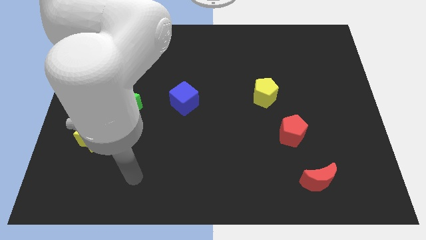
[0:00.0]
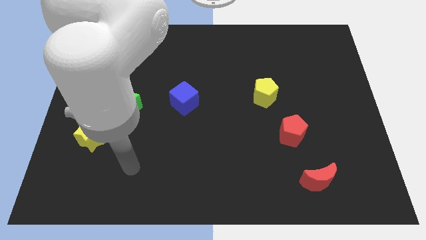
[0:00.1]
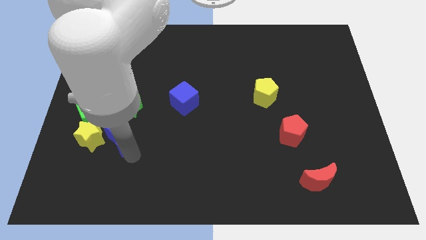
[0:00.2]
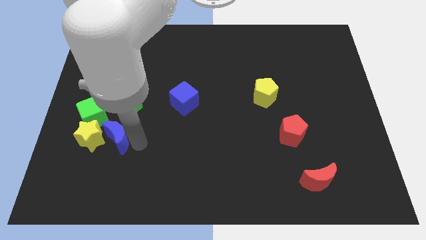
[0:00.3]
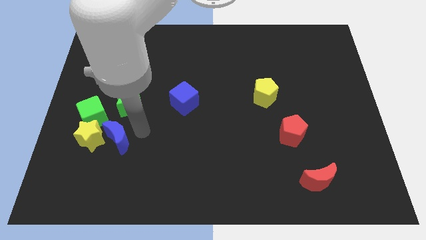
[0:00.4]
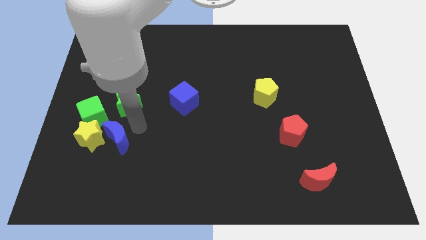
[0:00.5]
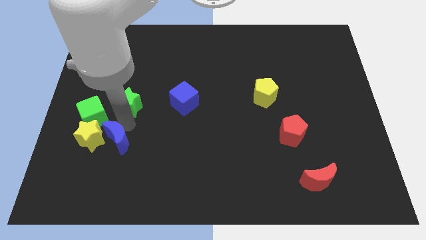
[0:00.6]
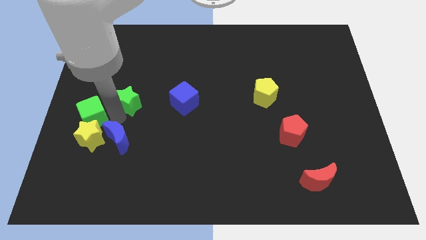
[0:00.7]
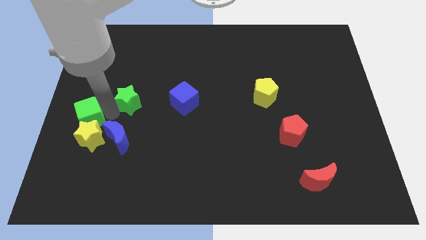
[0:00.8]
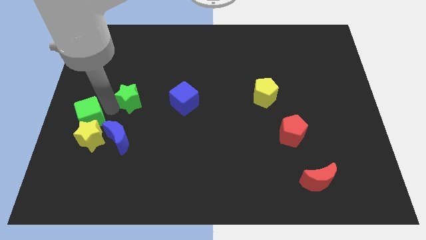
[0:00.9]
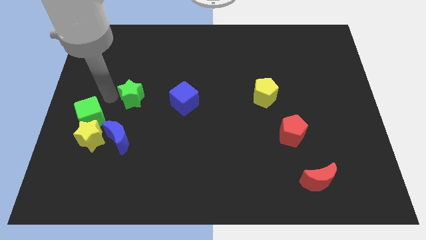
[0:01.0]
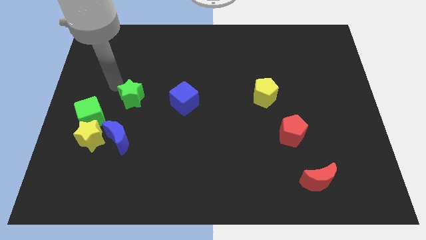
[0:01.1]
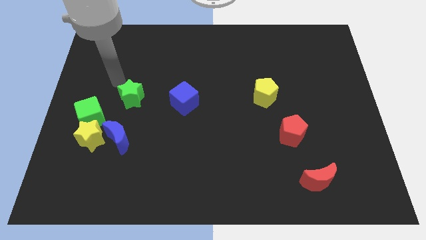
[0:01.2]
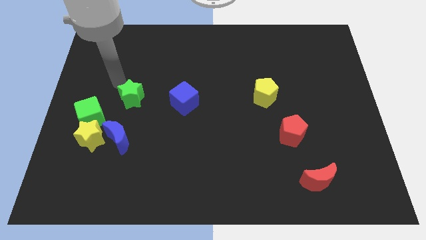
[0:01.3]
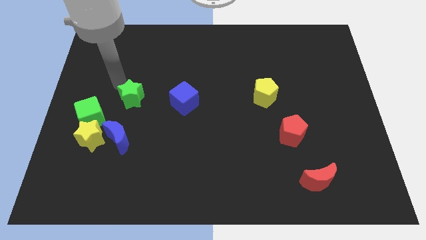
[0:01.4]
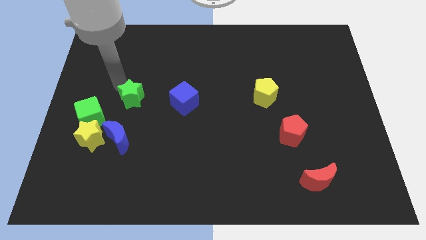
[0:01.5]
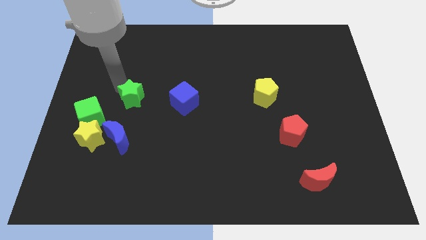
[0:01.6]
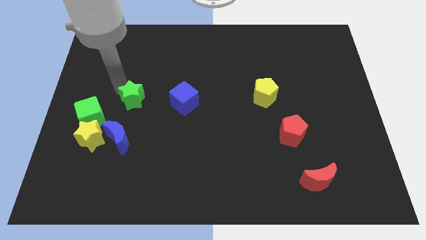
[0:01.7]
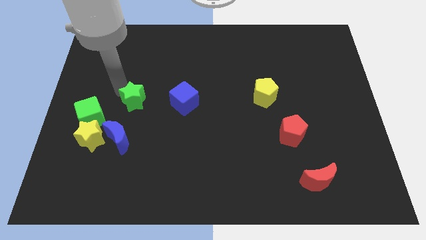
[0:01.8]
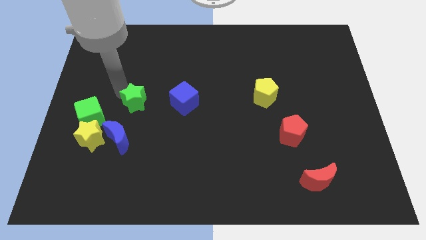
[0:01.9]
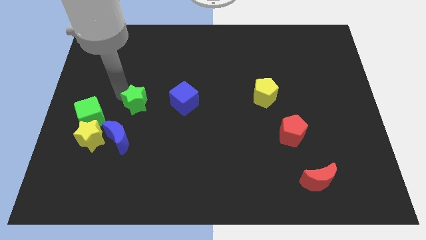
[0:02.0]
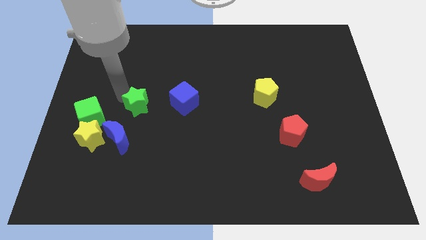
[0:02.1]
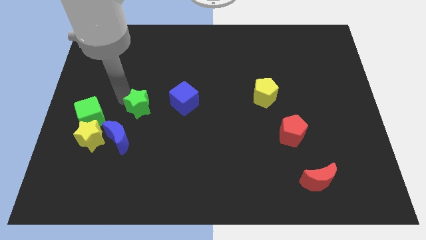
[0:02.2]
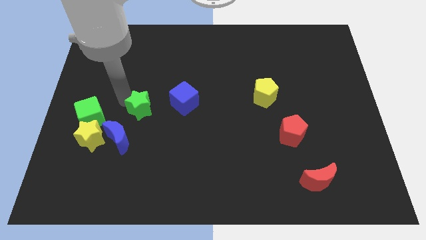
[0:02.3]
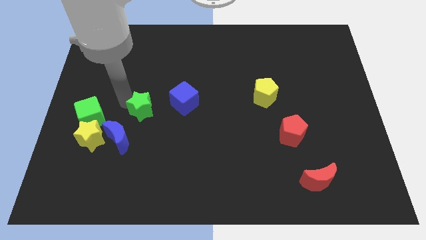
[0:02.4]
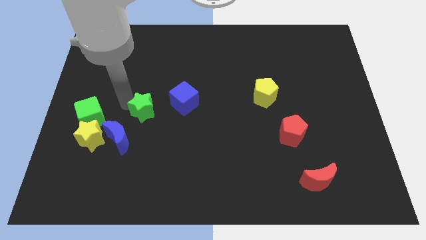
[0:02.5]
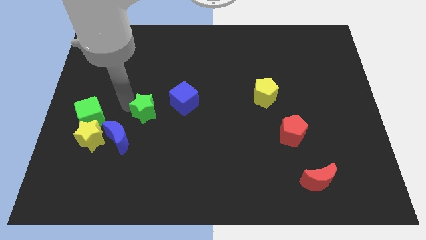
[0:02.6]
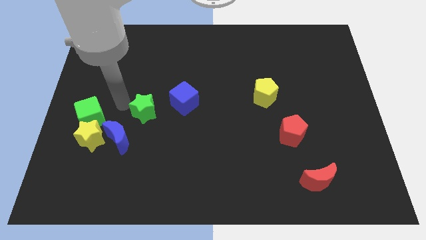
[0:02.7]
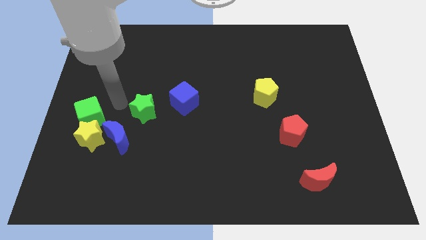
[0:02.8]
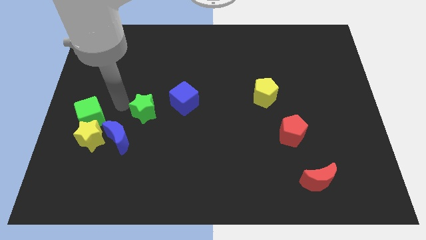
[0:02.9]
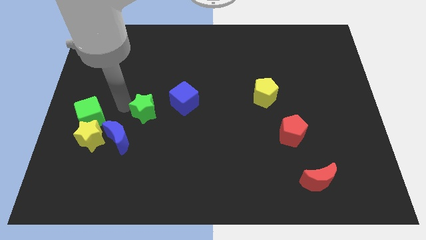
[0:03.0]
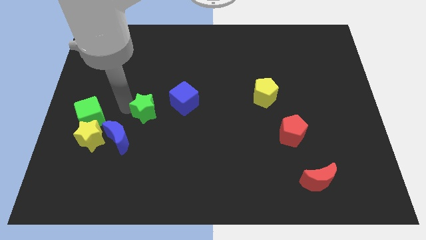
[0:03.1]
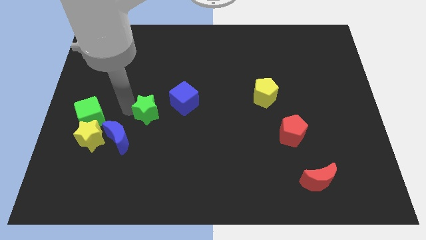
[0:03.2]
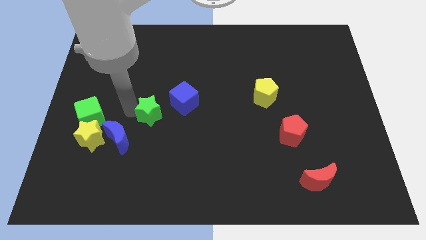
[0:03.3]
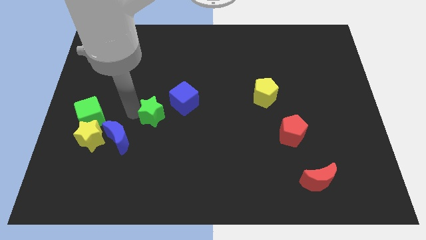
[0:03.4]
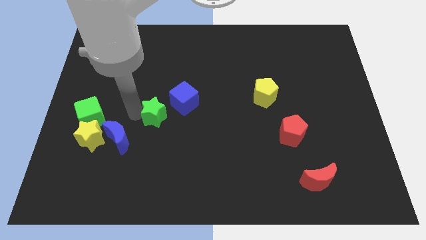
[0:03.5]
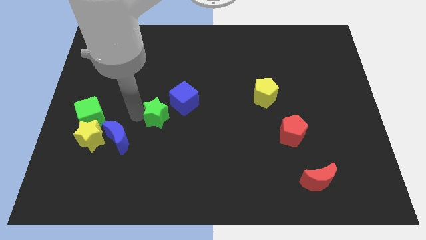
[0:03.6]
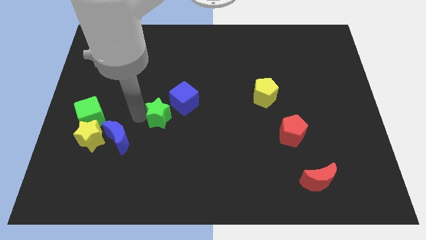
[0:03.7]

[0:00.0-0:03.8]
slide the green star to the right a bit

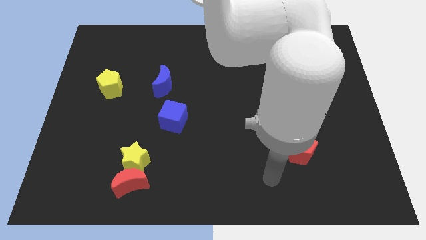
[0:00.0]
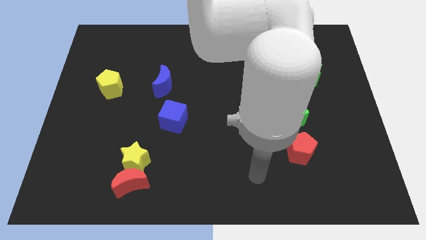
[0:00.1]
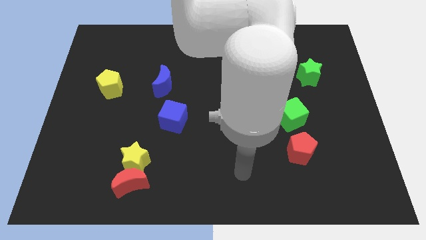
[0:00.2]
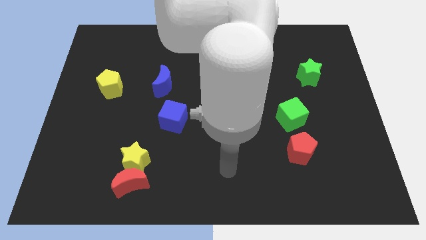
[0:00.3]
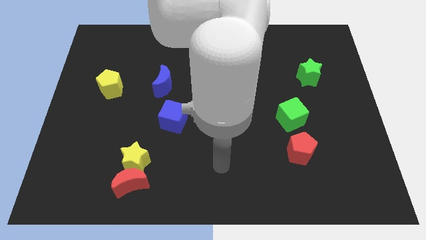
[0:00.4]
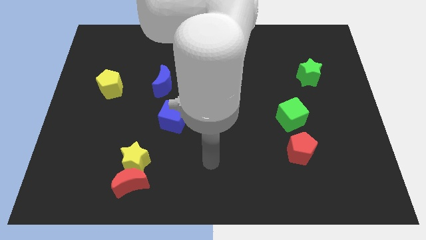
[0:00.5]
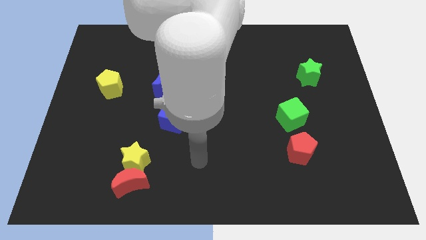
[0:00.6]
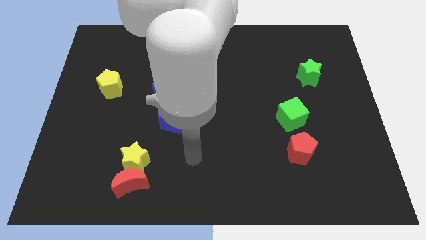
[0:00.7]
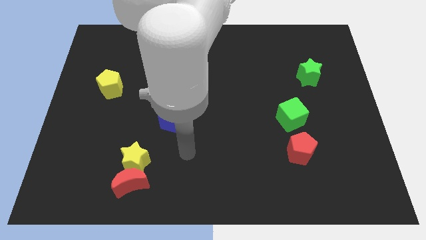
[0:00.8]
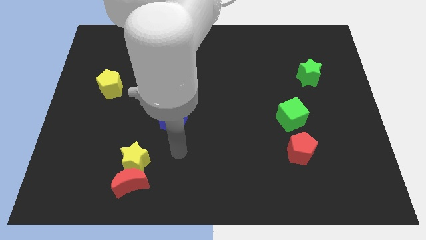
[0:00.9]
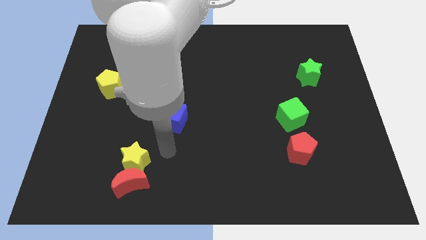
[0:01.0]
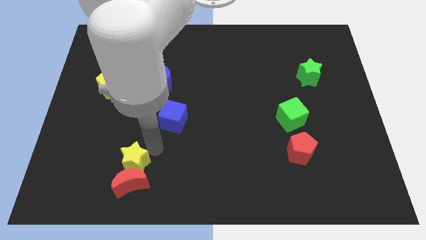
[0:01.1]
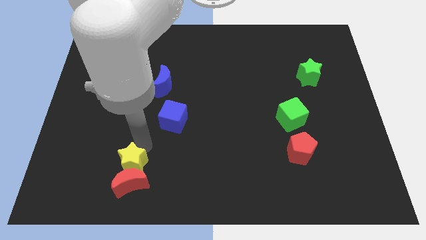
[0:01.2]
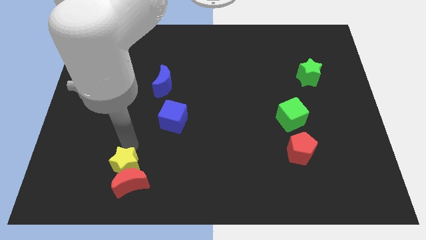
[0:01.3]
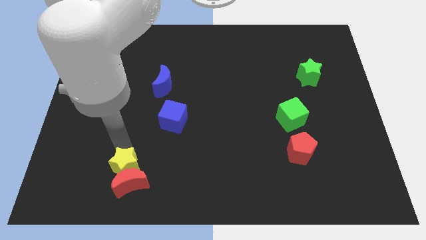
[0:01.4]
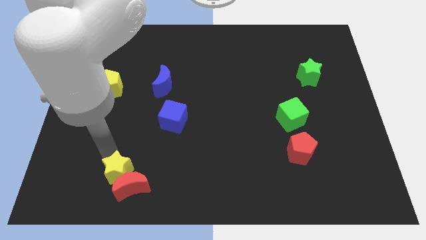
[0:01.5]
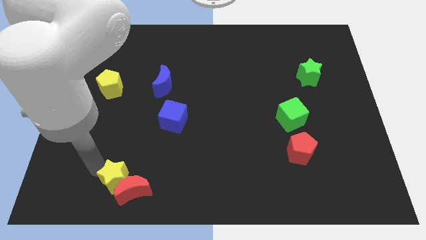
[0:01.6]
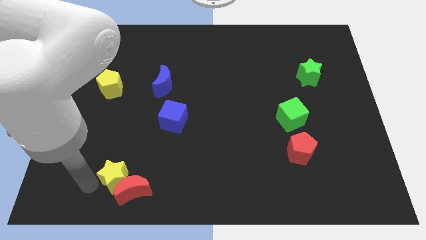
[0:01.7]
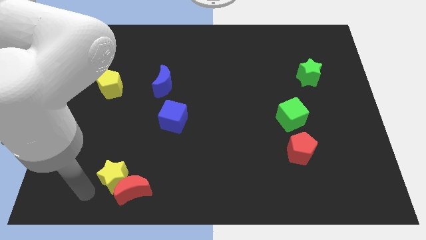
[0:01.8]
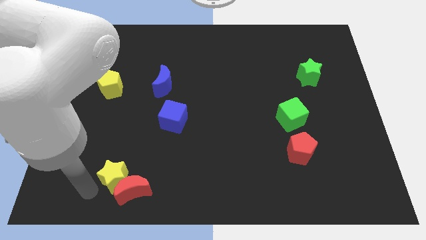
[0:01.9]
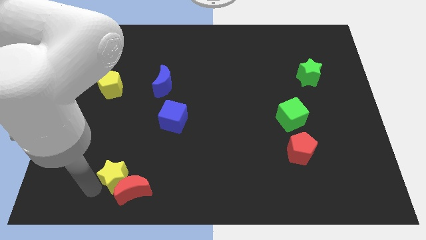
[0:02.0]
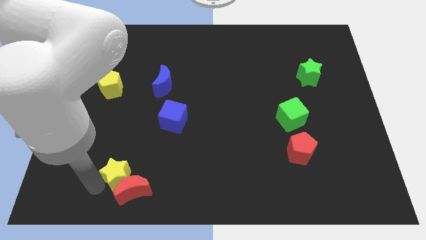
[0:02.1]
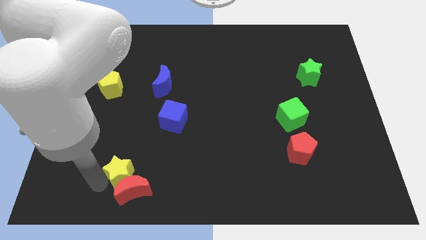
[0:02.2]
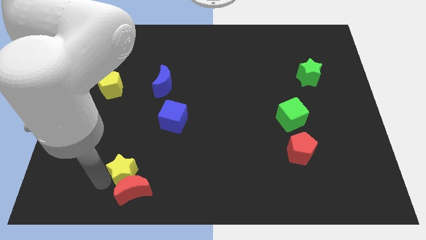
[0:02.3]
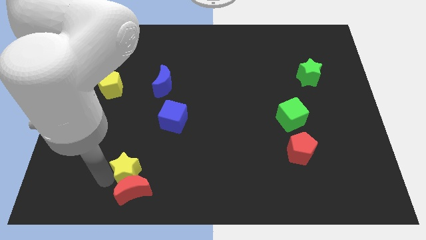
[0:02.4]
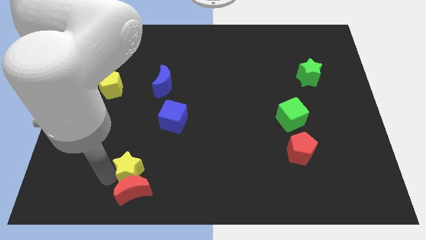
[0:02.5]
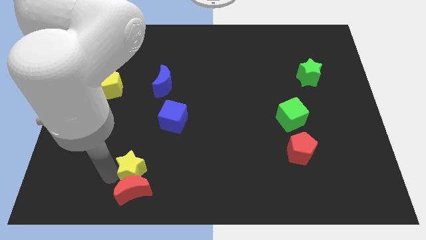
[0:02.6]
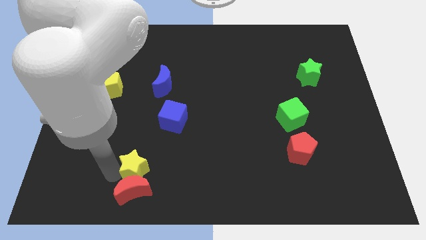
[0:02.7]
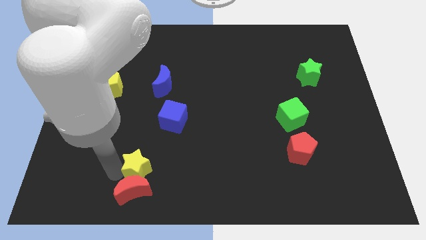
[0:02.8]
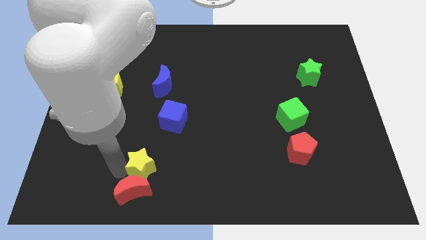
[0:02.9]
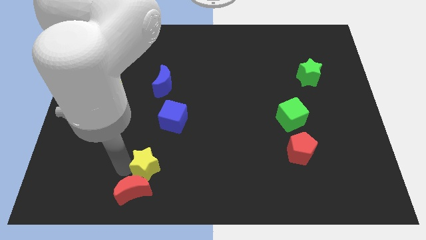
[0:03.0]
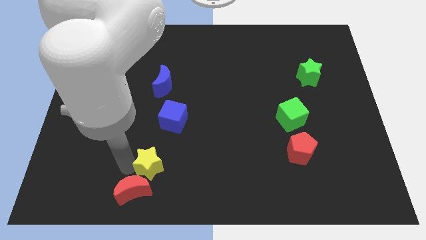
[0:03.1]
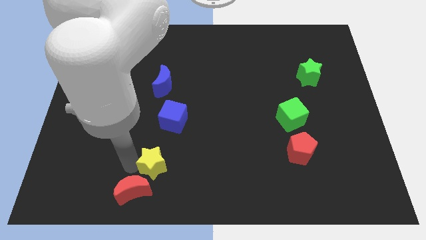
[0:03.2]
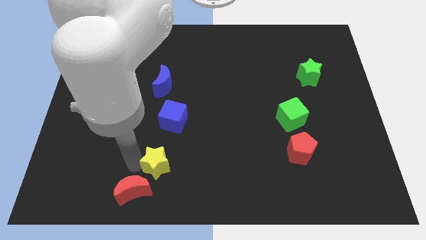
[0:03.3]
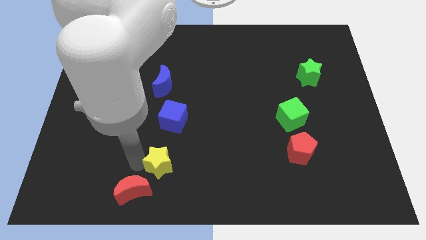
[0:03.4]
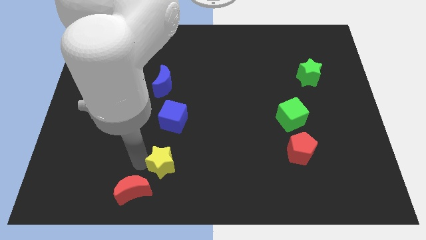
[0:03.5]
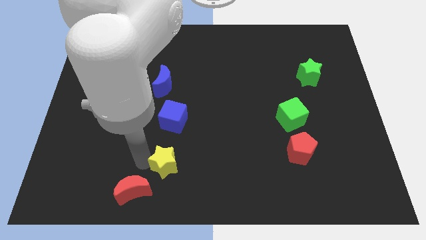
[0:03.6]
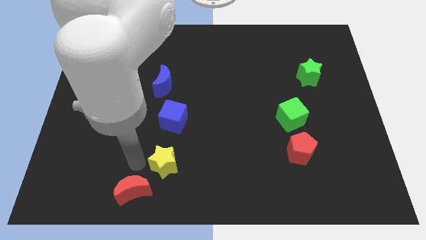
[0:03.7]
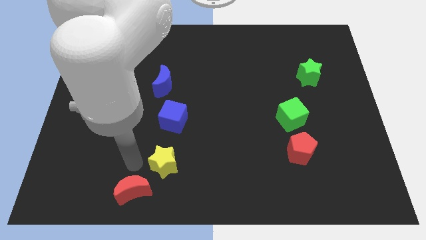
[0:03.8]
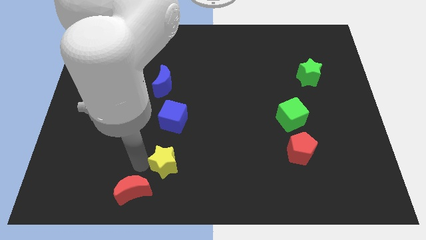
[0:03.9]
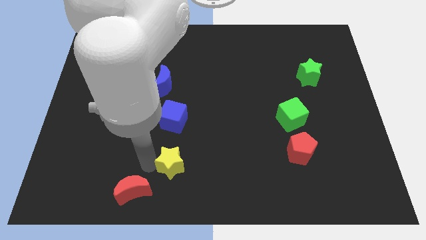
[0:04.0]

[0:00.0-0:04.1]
slightly move the yellow star to the right

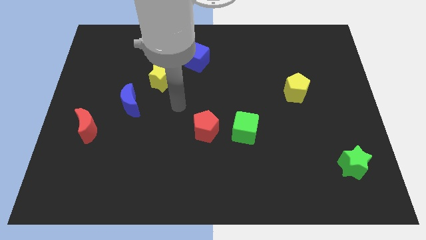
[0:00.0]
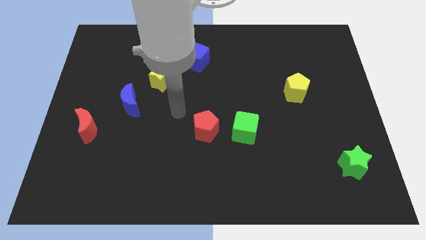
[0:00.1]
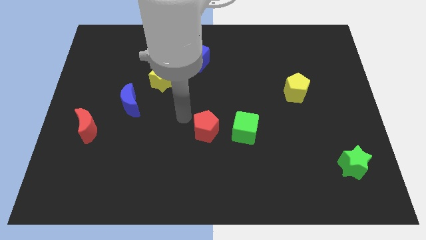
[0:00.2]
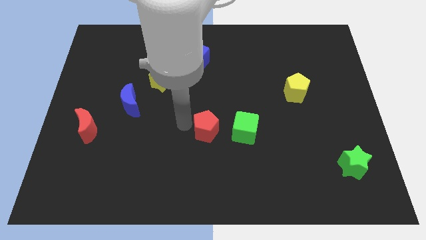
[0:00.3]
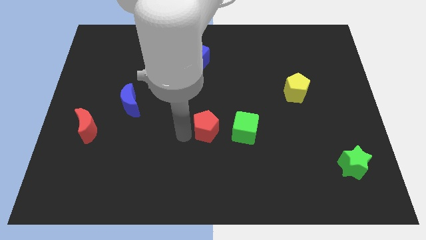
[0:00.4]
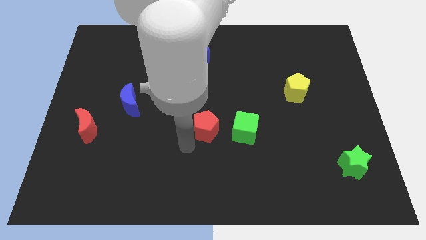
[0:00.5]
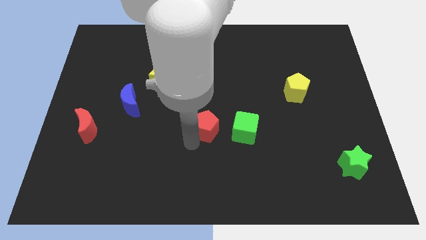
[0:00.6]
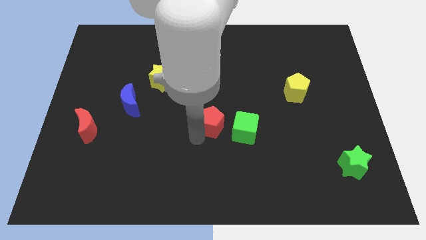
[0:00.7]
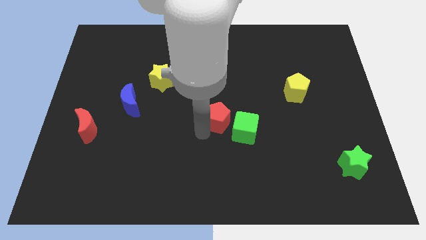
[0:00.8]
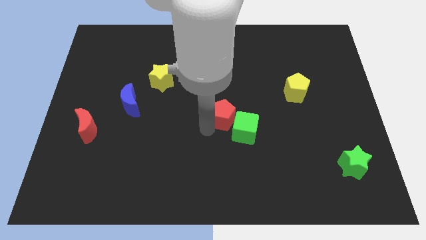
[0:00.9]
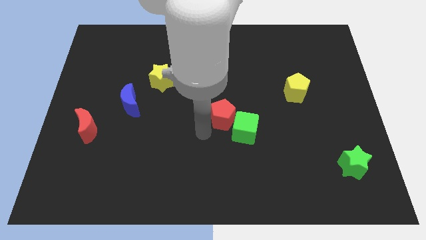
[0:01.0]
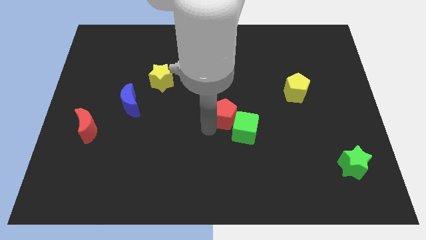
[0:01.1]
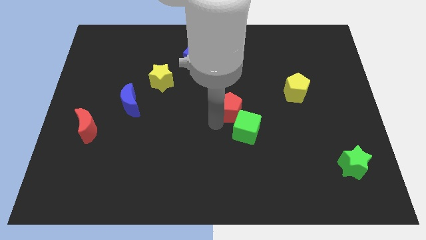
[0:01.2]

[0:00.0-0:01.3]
move the red pentagon diagonally up and to the right slightly
